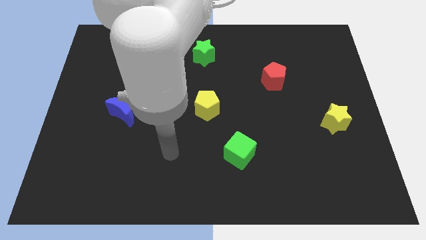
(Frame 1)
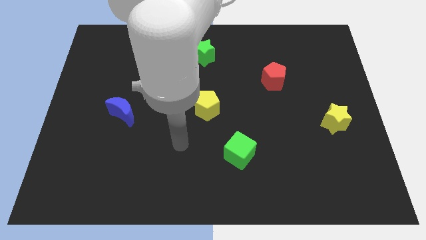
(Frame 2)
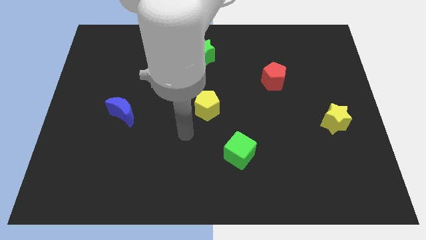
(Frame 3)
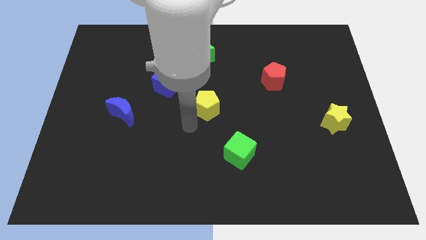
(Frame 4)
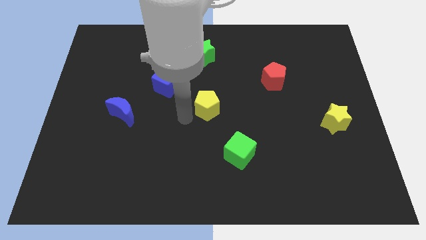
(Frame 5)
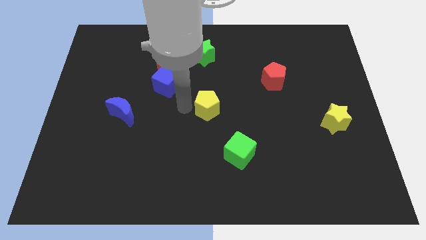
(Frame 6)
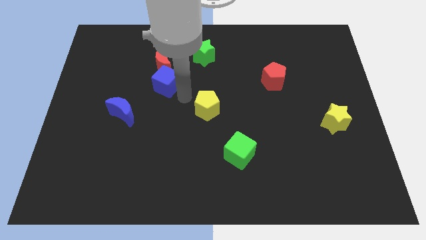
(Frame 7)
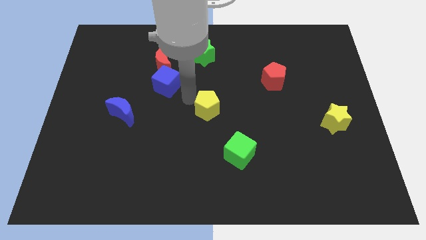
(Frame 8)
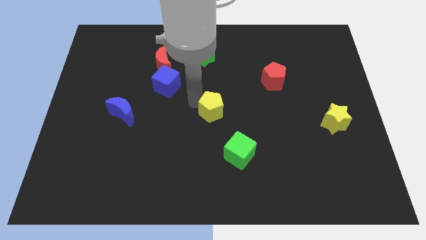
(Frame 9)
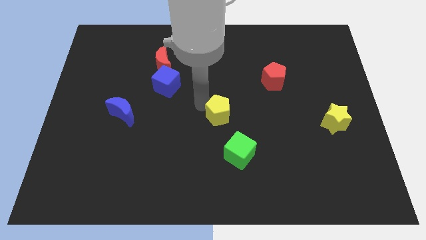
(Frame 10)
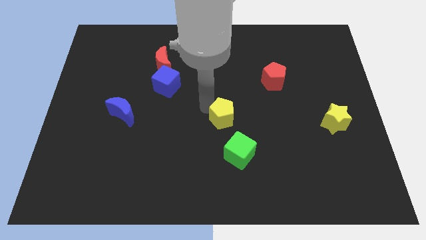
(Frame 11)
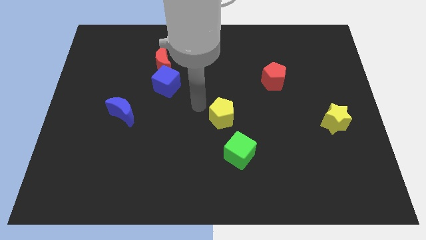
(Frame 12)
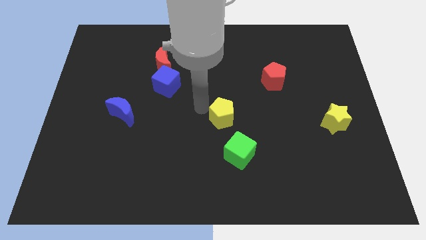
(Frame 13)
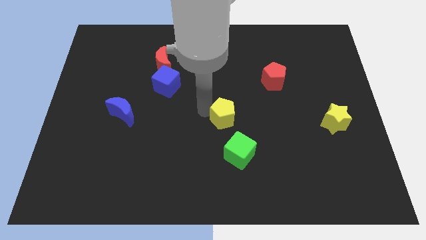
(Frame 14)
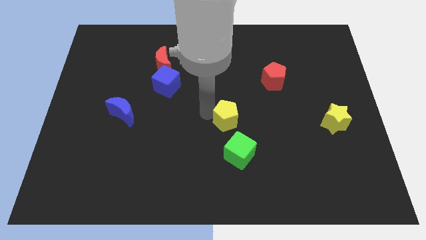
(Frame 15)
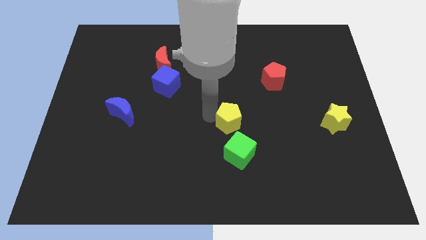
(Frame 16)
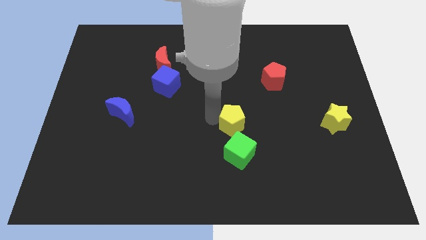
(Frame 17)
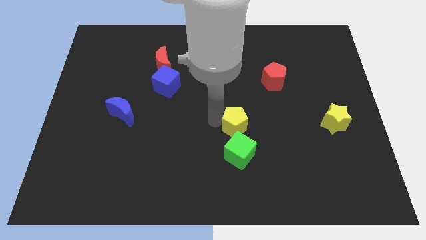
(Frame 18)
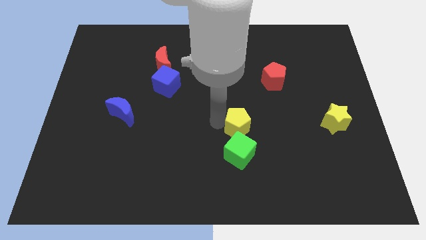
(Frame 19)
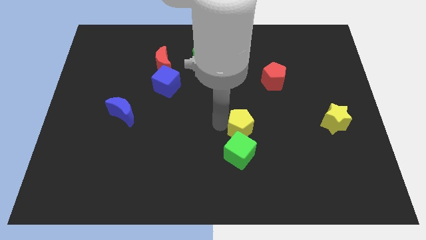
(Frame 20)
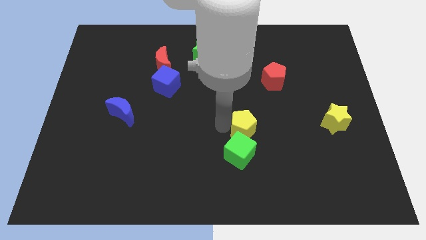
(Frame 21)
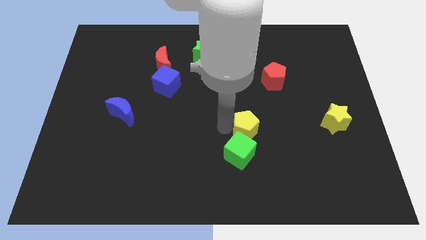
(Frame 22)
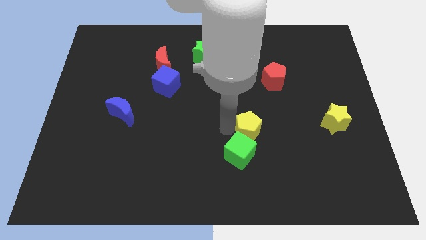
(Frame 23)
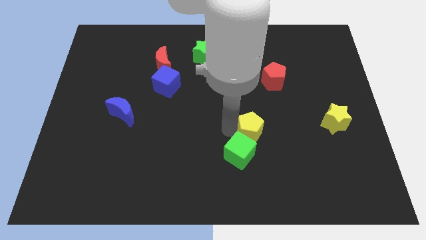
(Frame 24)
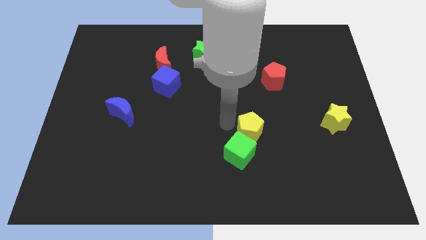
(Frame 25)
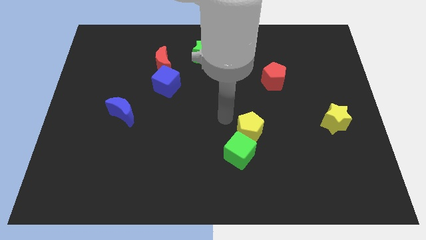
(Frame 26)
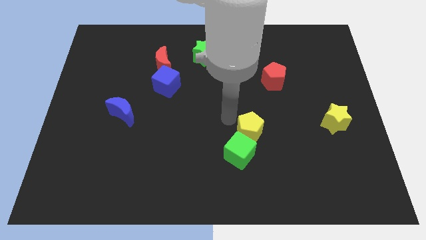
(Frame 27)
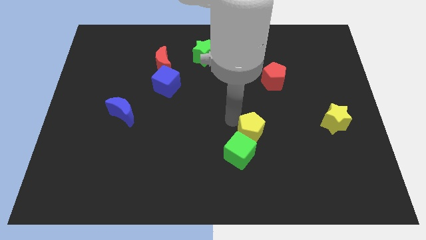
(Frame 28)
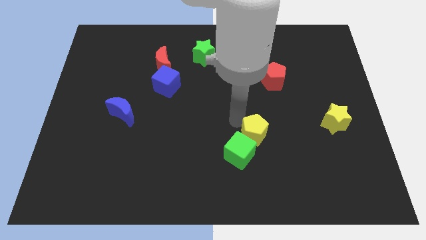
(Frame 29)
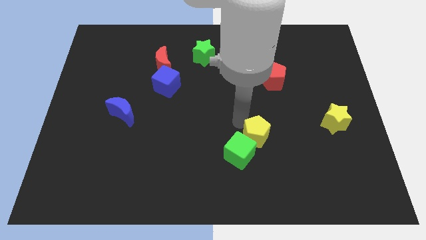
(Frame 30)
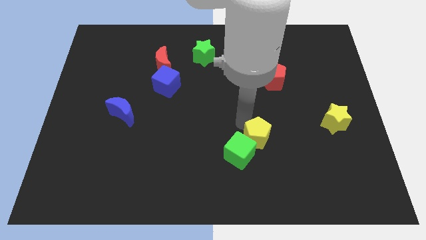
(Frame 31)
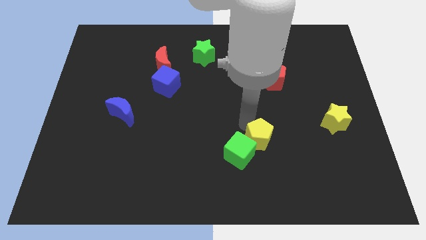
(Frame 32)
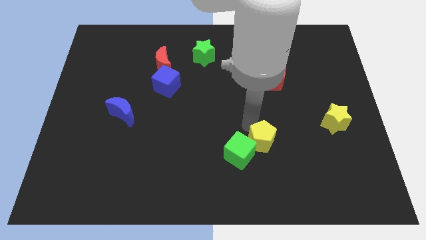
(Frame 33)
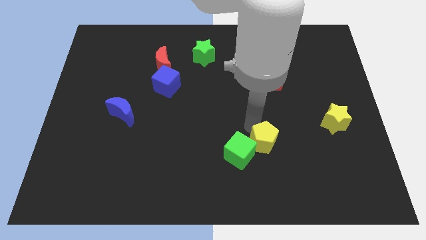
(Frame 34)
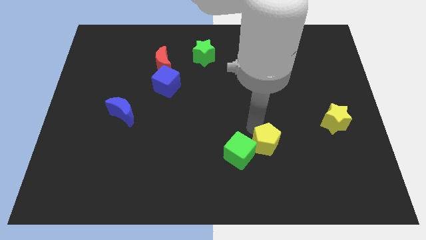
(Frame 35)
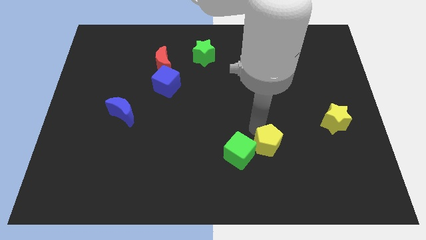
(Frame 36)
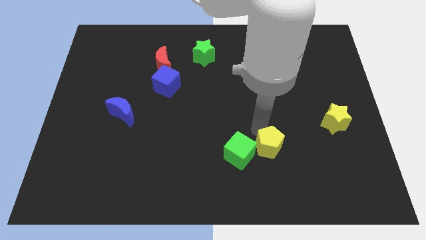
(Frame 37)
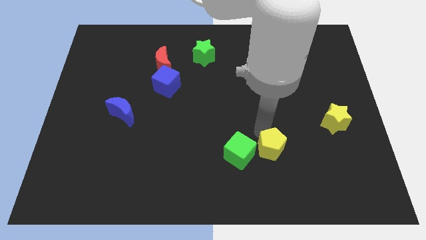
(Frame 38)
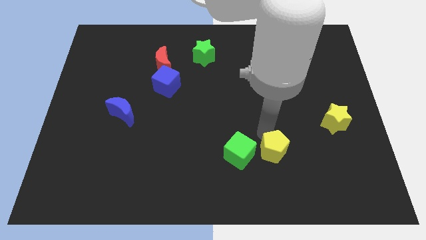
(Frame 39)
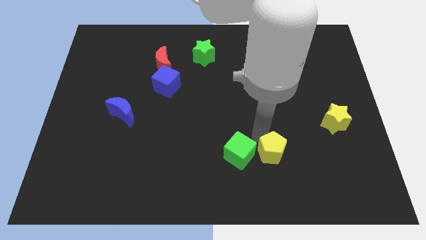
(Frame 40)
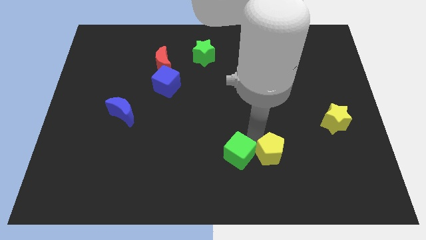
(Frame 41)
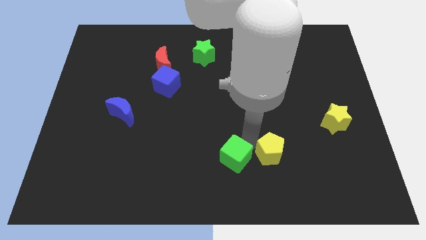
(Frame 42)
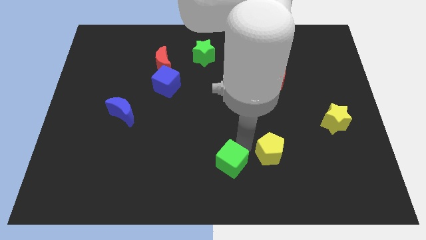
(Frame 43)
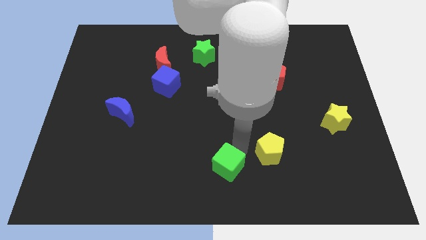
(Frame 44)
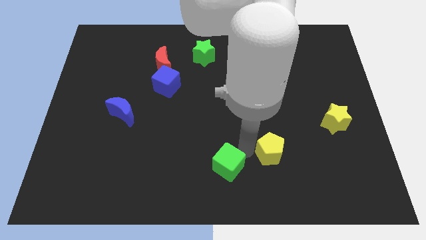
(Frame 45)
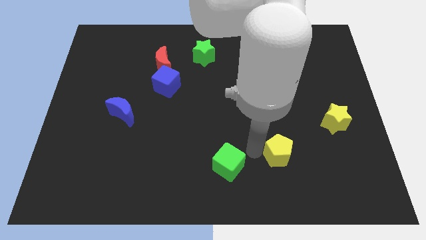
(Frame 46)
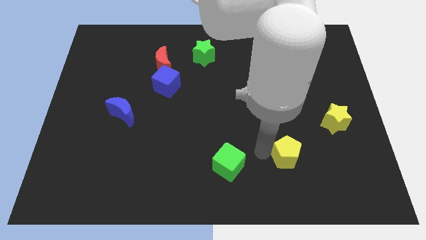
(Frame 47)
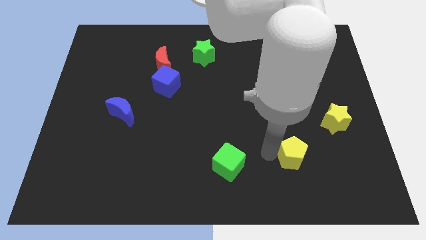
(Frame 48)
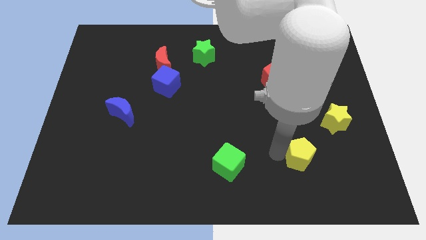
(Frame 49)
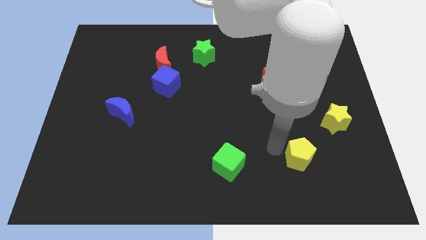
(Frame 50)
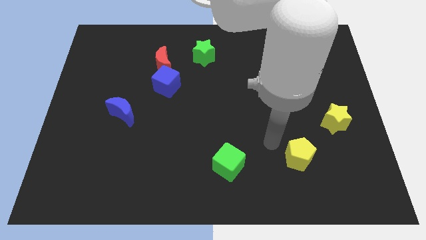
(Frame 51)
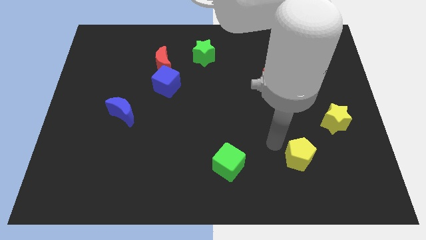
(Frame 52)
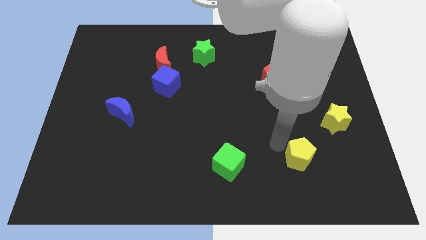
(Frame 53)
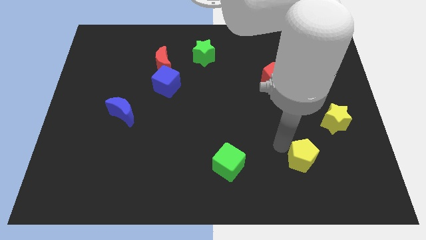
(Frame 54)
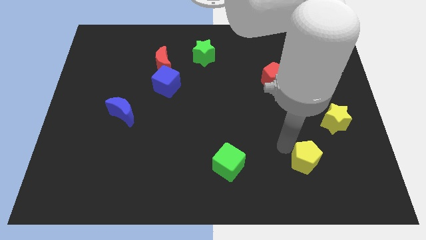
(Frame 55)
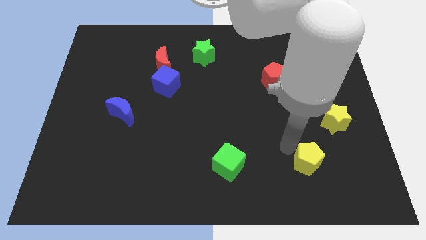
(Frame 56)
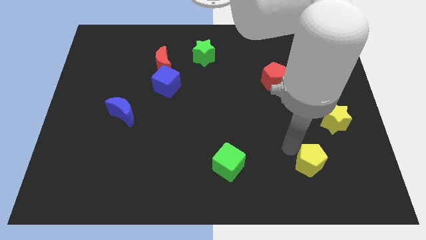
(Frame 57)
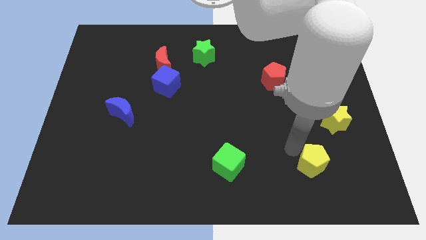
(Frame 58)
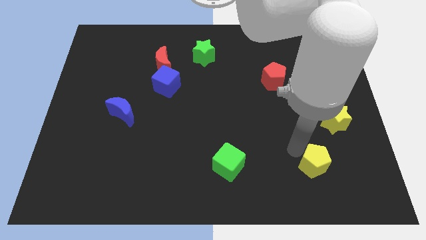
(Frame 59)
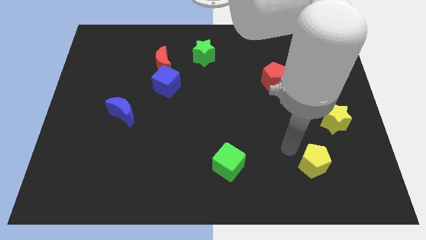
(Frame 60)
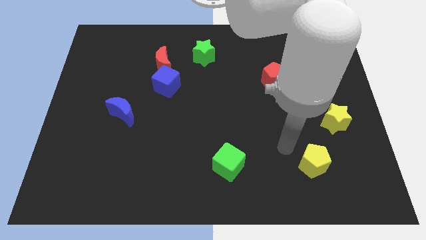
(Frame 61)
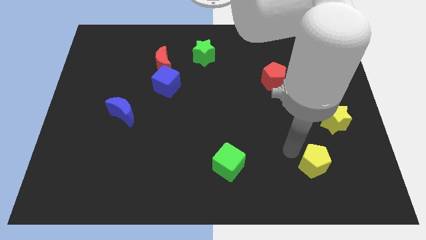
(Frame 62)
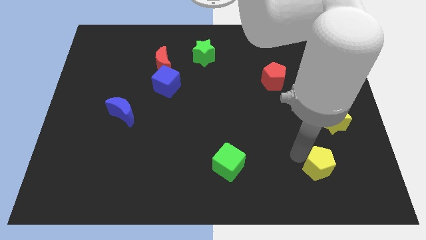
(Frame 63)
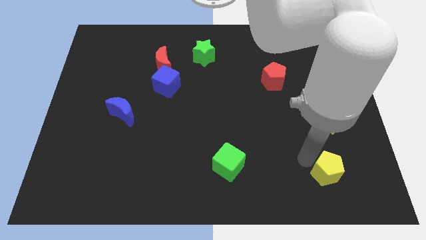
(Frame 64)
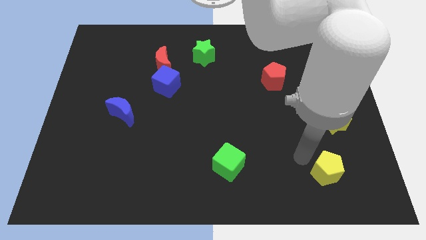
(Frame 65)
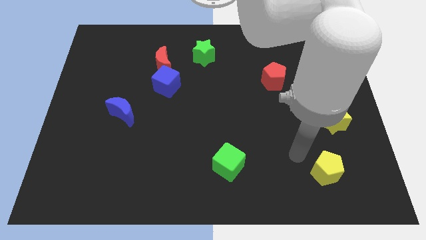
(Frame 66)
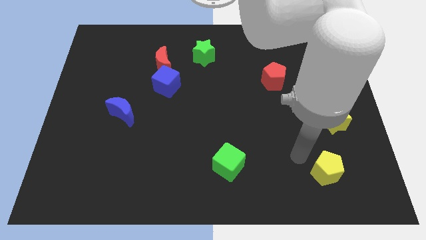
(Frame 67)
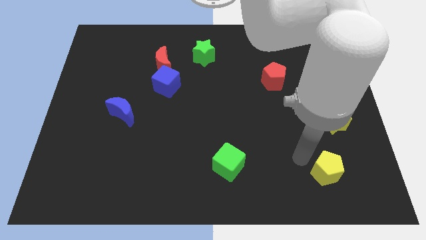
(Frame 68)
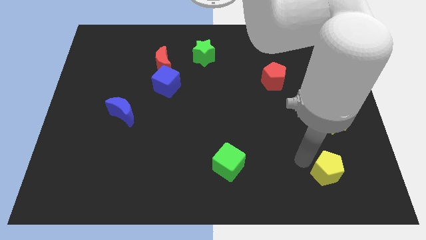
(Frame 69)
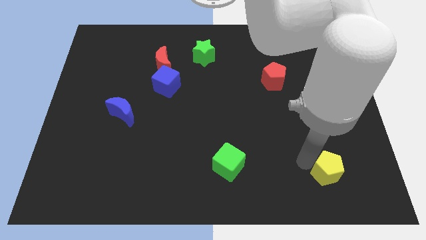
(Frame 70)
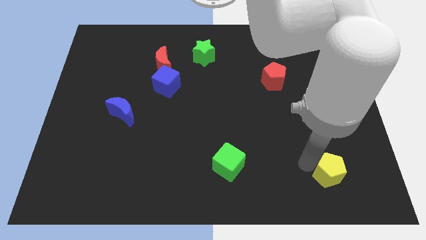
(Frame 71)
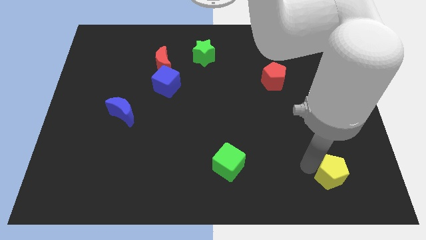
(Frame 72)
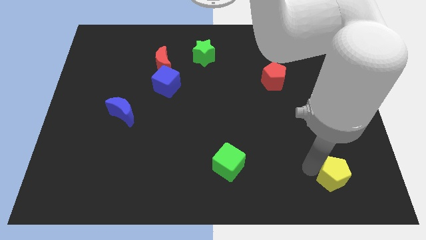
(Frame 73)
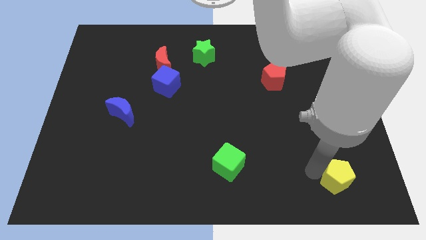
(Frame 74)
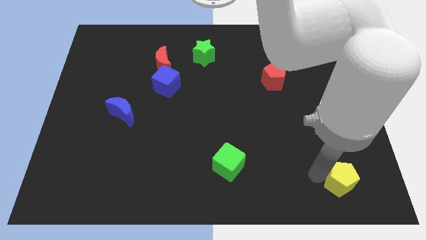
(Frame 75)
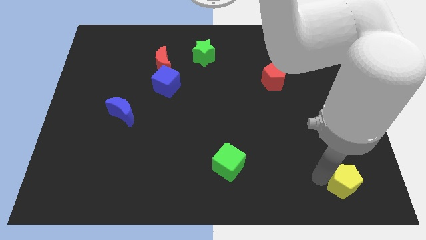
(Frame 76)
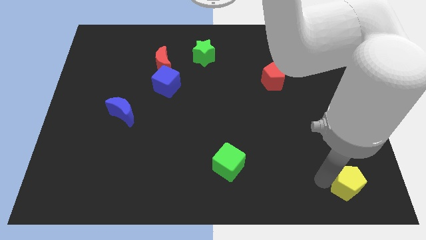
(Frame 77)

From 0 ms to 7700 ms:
move the yellow pentagon to the bottom right corner
